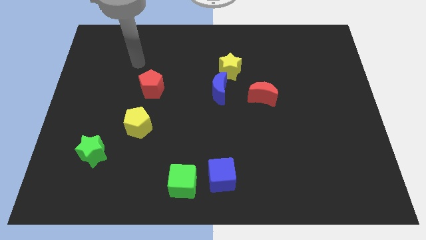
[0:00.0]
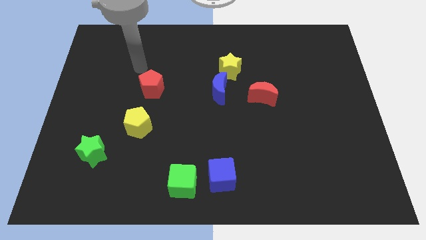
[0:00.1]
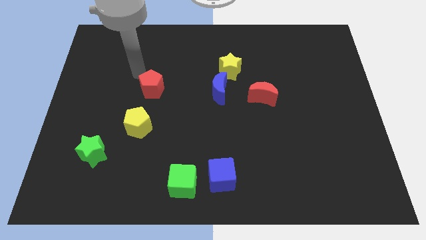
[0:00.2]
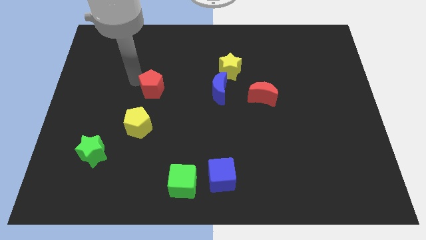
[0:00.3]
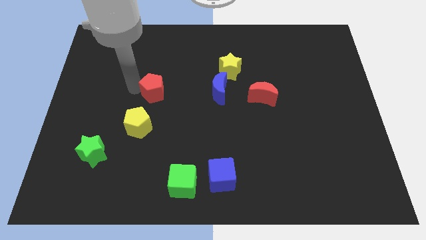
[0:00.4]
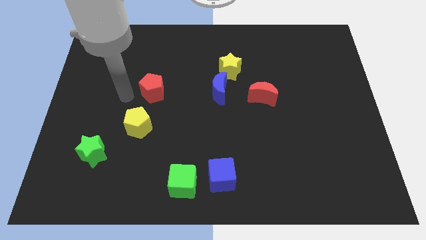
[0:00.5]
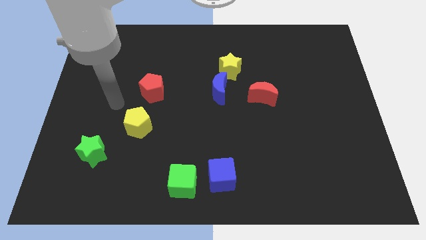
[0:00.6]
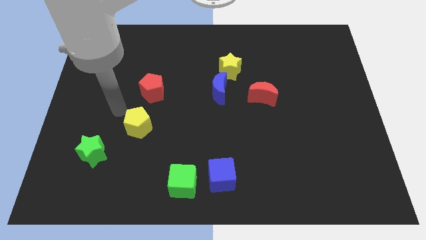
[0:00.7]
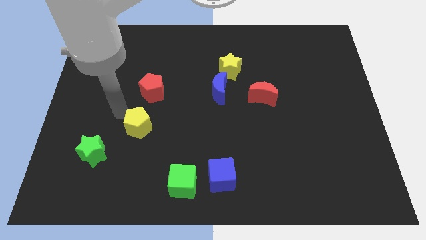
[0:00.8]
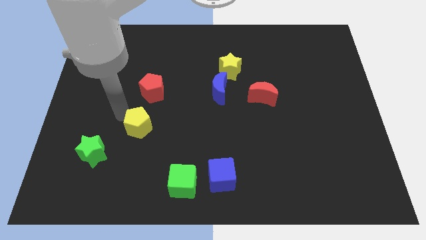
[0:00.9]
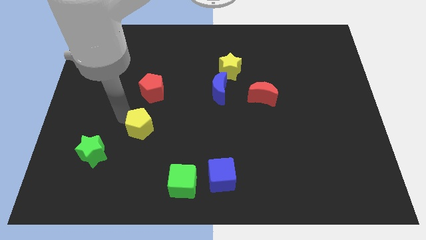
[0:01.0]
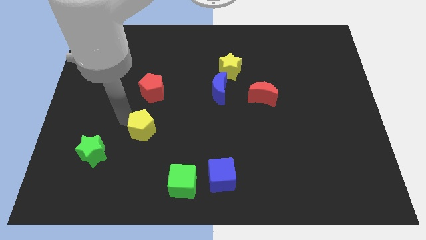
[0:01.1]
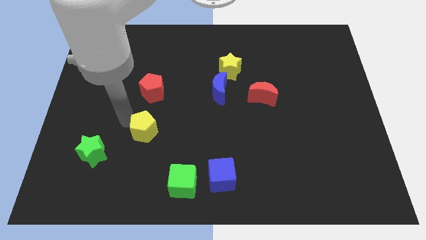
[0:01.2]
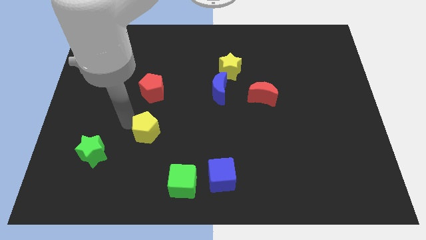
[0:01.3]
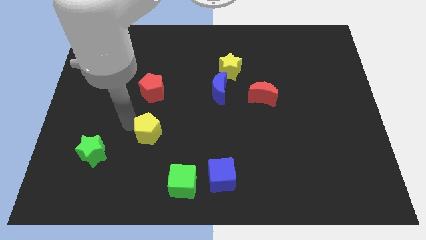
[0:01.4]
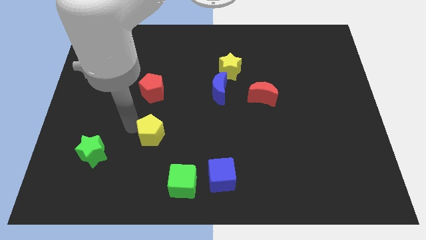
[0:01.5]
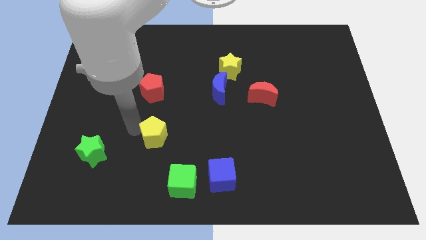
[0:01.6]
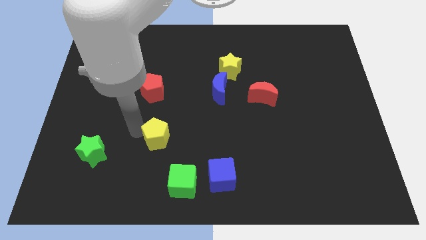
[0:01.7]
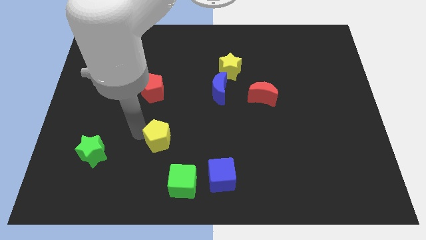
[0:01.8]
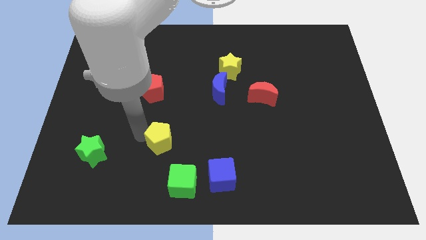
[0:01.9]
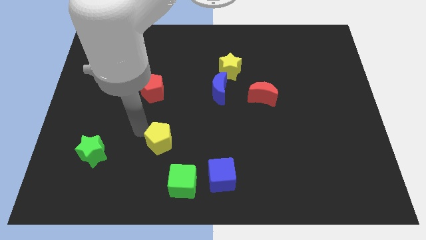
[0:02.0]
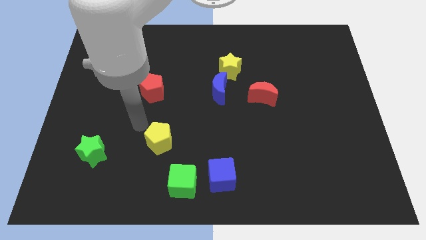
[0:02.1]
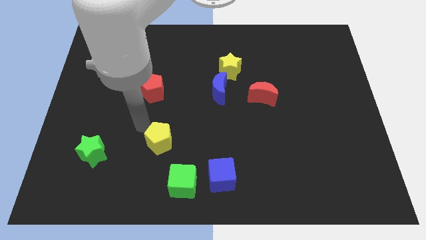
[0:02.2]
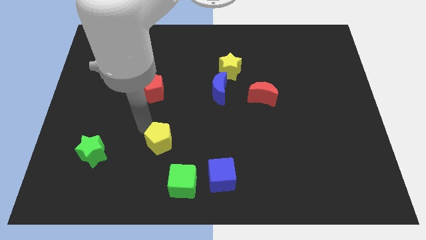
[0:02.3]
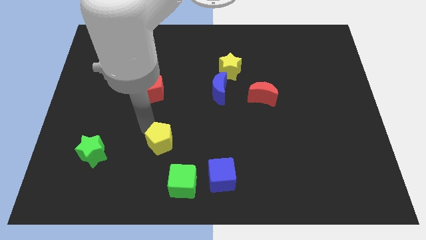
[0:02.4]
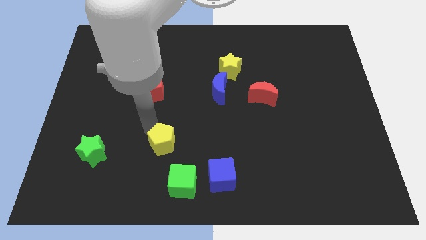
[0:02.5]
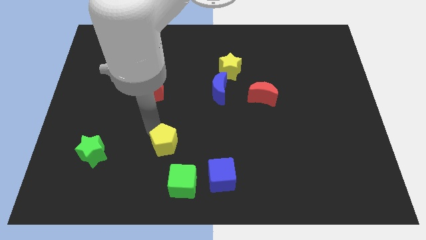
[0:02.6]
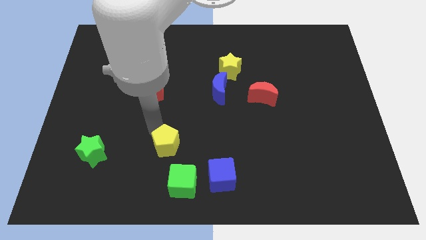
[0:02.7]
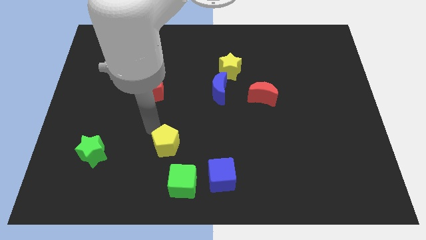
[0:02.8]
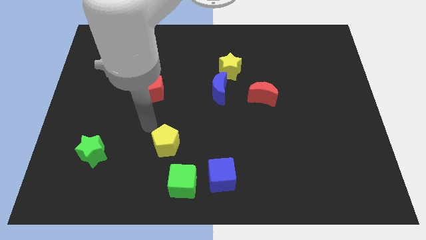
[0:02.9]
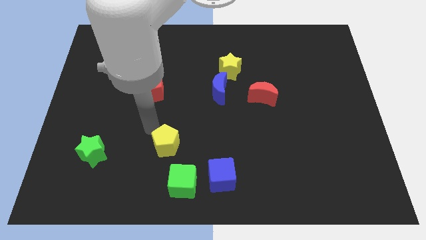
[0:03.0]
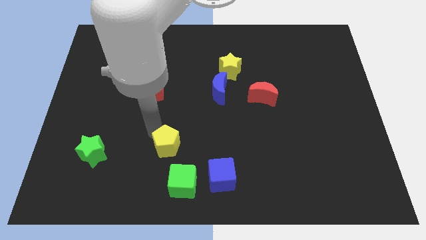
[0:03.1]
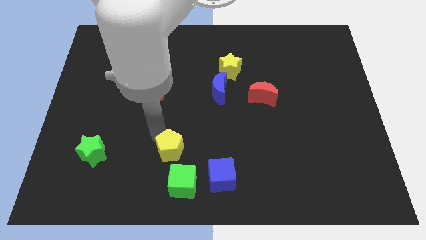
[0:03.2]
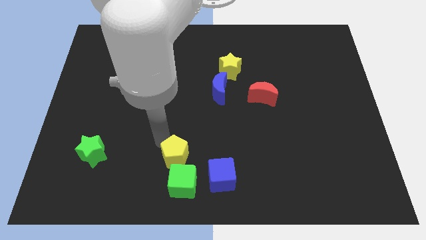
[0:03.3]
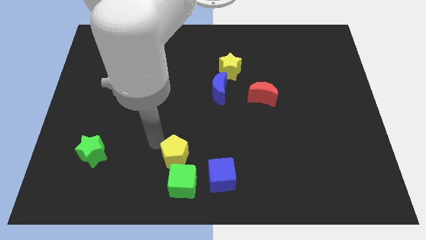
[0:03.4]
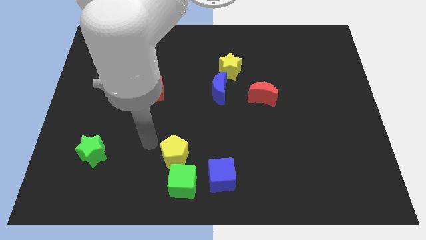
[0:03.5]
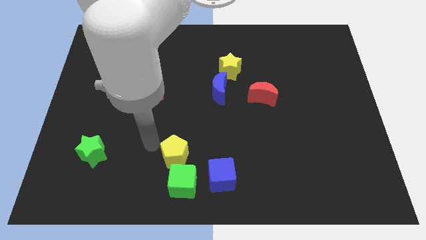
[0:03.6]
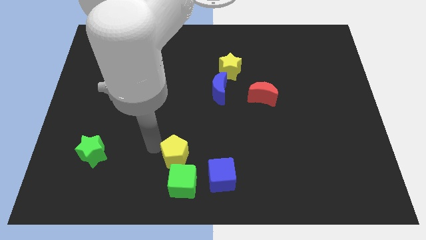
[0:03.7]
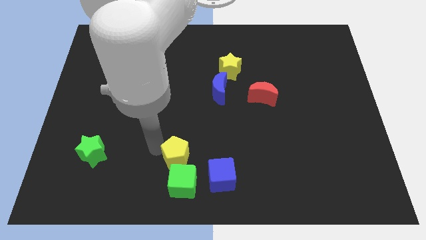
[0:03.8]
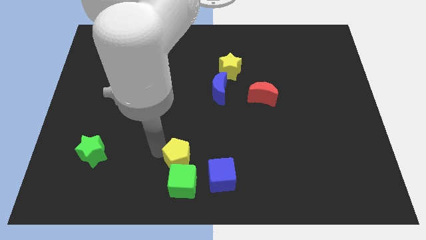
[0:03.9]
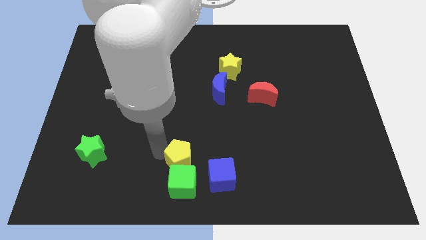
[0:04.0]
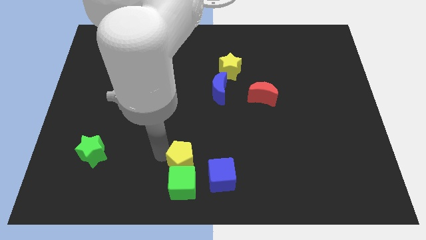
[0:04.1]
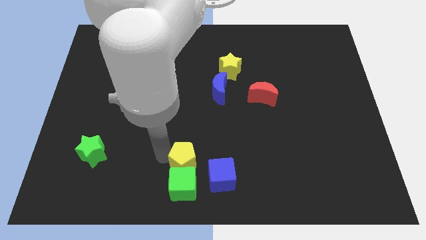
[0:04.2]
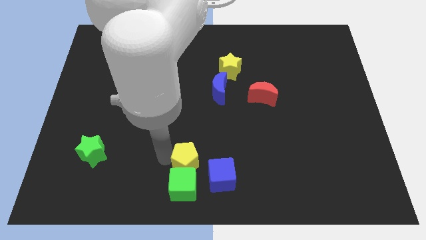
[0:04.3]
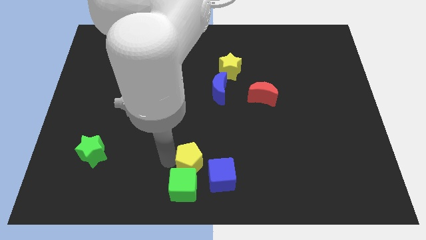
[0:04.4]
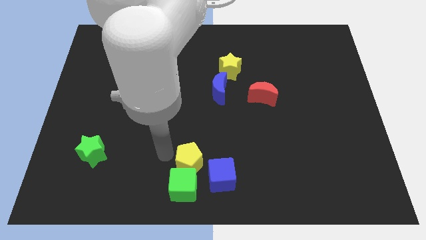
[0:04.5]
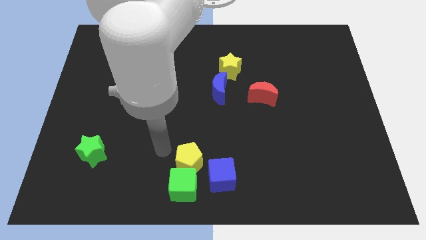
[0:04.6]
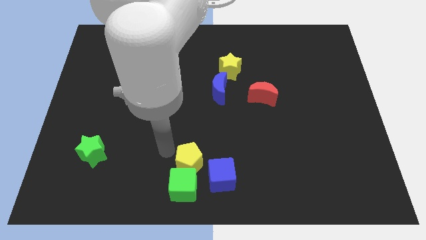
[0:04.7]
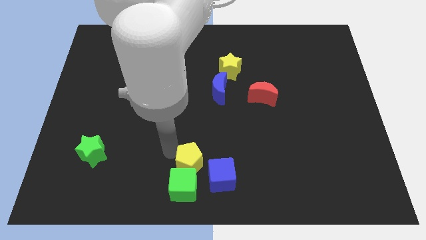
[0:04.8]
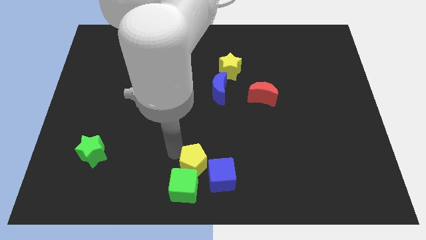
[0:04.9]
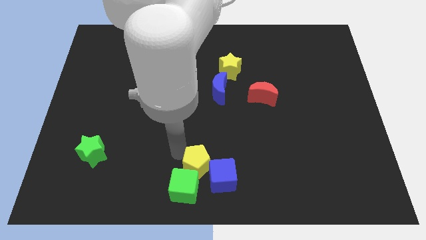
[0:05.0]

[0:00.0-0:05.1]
put the yellow pentagon to the blue cube

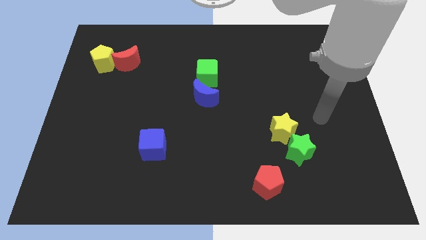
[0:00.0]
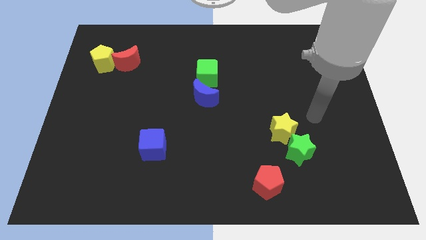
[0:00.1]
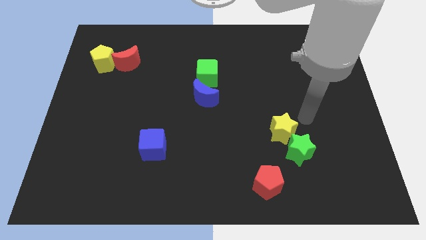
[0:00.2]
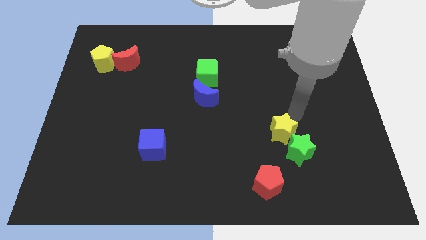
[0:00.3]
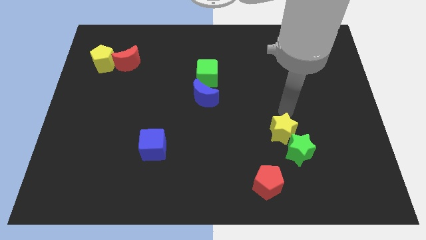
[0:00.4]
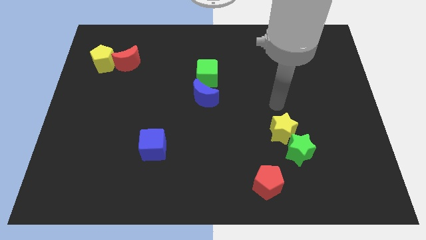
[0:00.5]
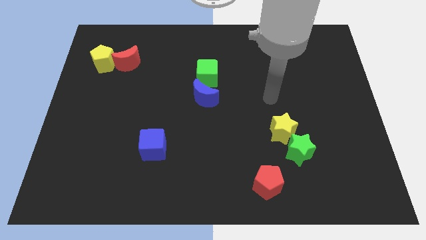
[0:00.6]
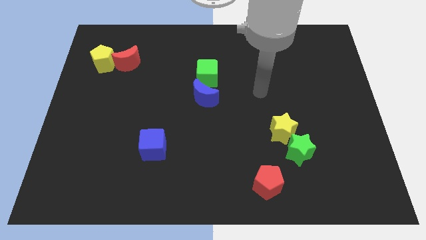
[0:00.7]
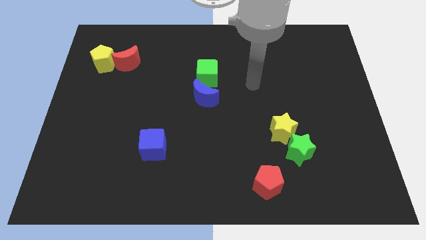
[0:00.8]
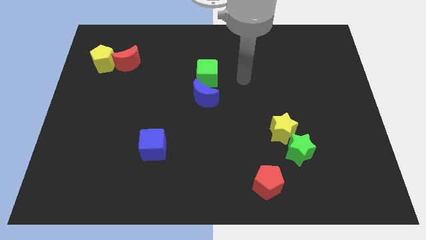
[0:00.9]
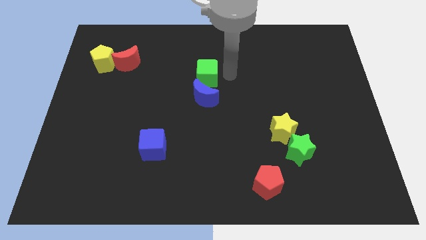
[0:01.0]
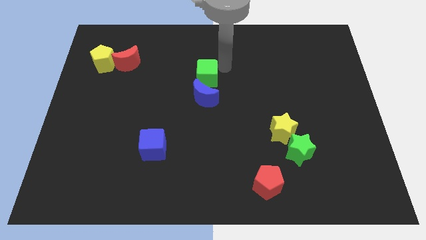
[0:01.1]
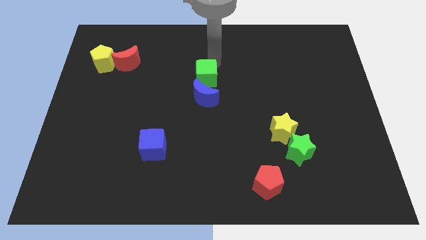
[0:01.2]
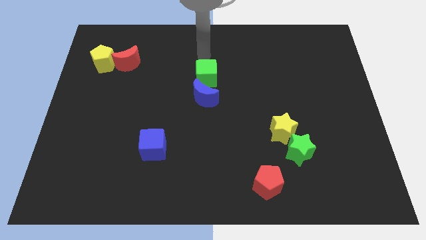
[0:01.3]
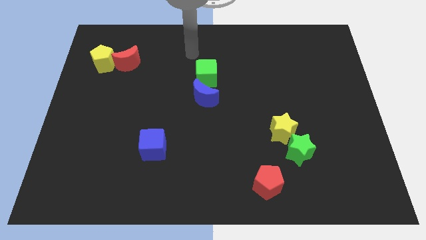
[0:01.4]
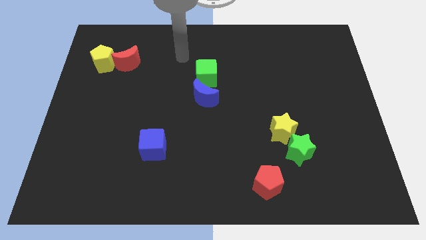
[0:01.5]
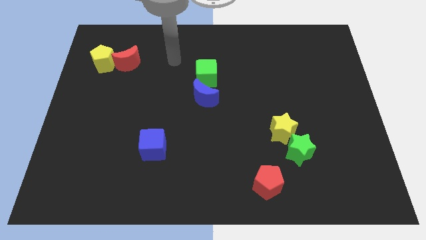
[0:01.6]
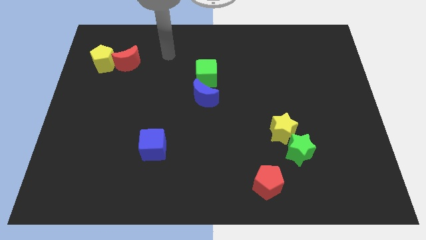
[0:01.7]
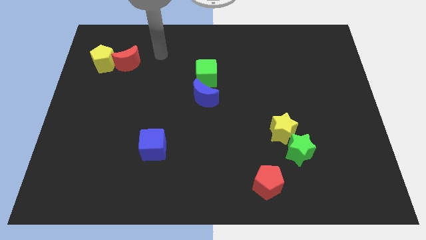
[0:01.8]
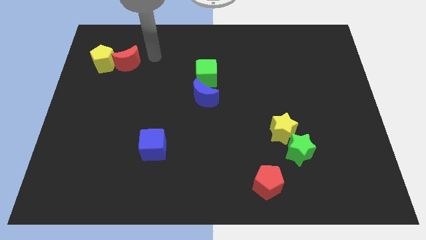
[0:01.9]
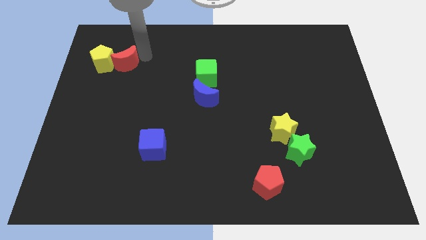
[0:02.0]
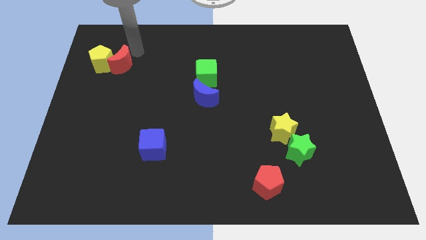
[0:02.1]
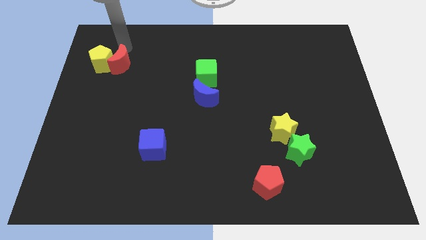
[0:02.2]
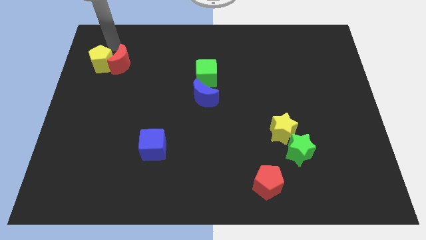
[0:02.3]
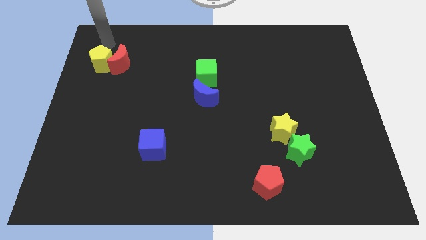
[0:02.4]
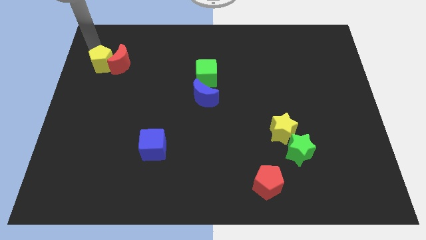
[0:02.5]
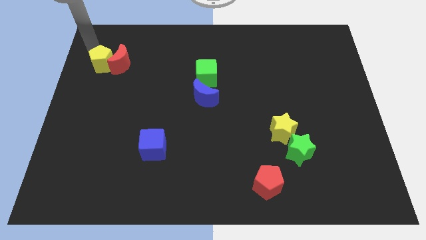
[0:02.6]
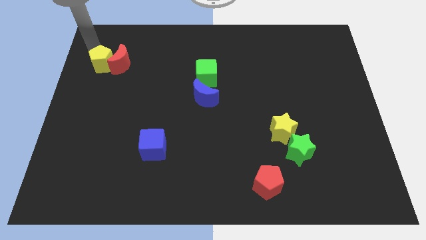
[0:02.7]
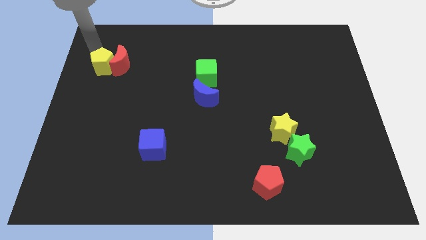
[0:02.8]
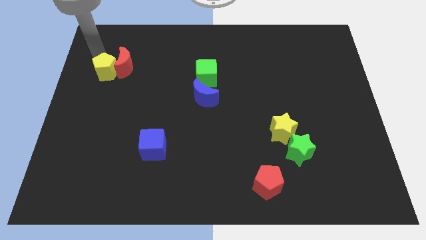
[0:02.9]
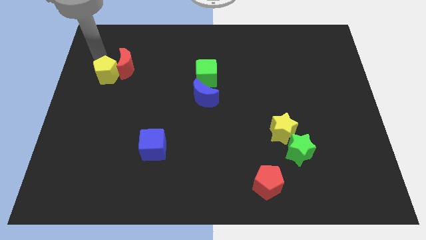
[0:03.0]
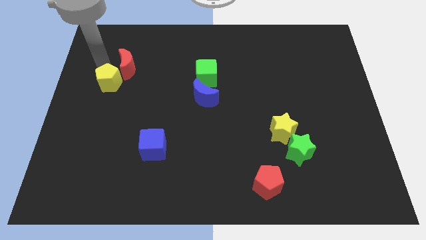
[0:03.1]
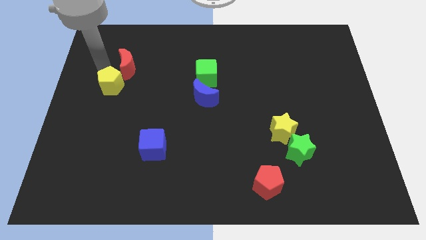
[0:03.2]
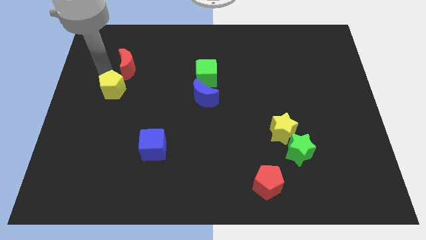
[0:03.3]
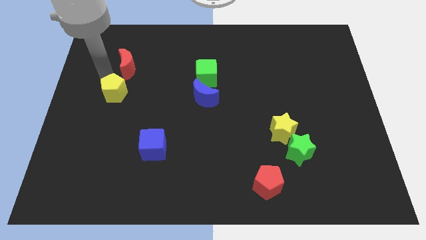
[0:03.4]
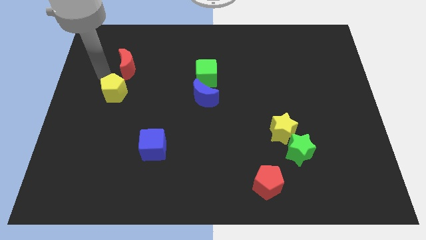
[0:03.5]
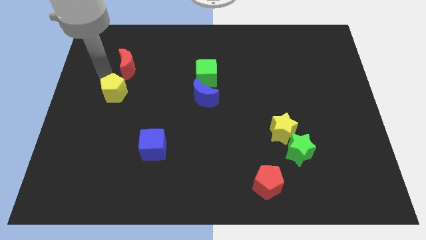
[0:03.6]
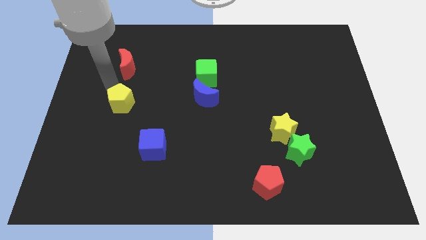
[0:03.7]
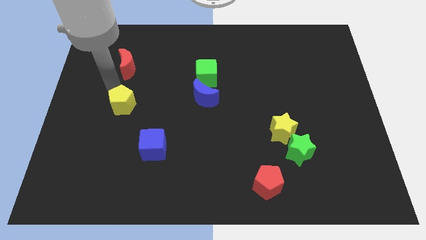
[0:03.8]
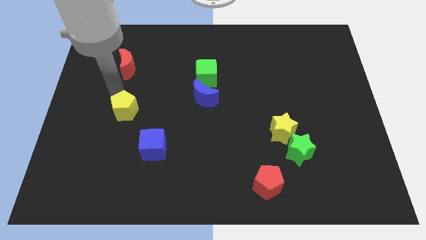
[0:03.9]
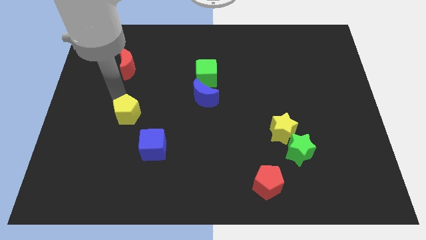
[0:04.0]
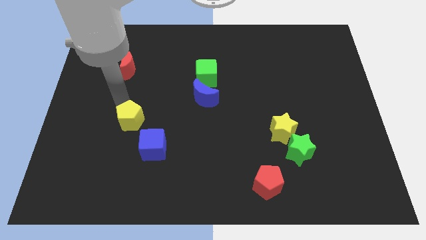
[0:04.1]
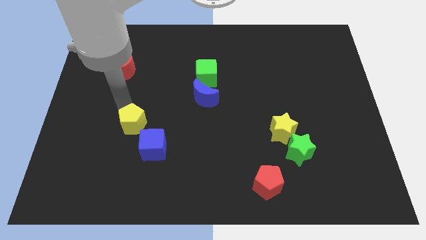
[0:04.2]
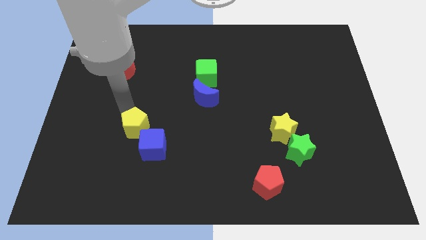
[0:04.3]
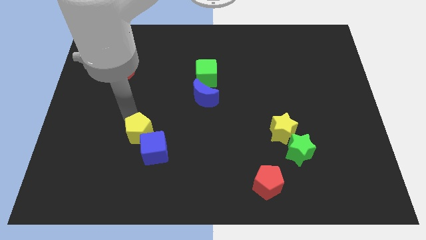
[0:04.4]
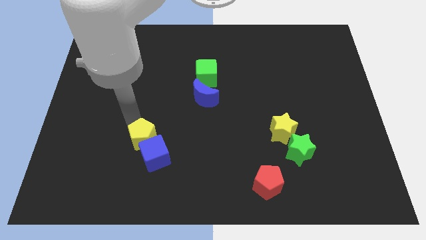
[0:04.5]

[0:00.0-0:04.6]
slide the yellow pentagon to the blue cube
